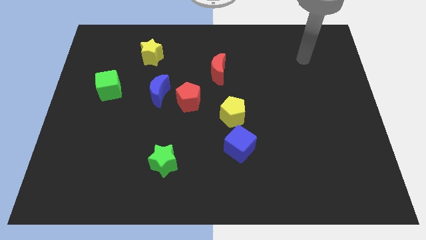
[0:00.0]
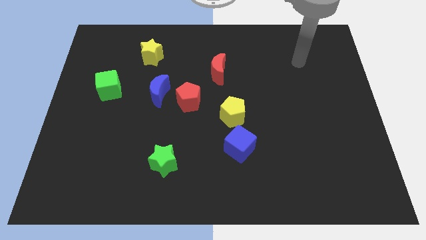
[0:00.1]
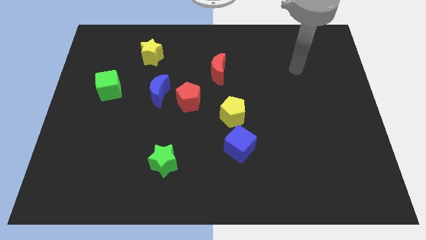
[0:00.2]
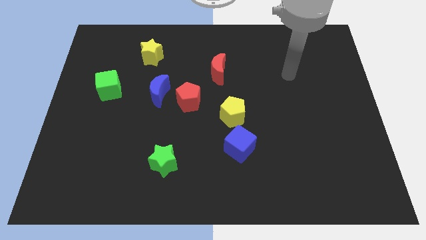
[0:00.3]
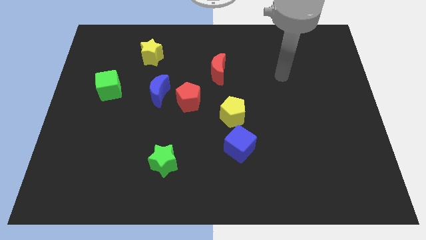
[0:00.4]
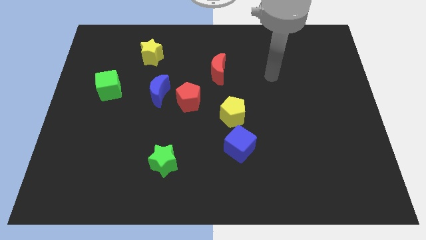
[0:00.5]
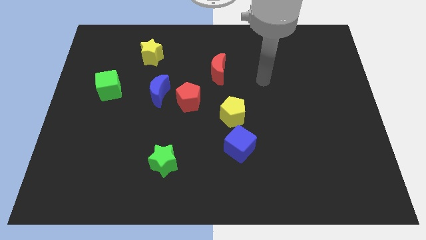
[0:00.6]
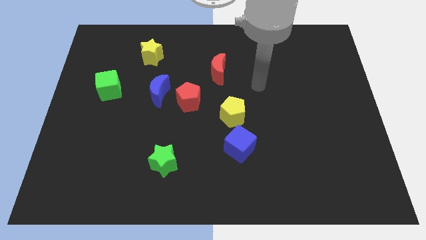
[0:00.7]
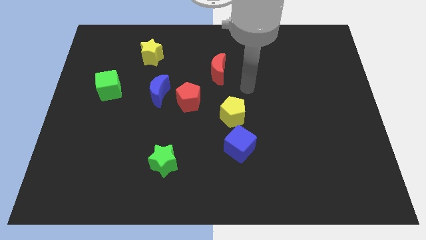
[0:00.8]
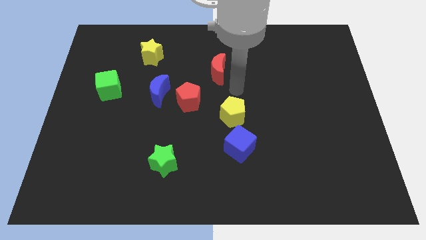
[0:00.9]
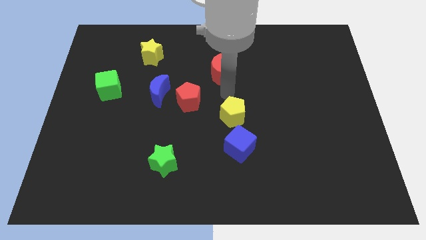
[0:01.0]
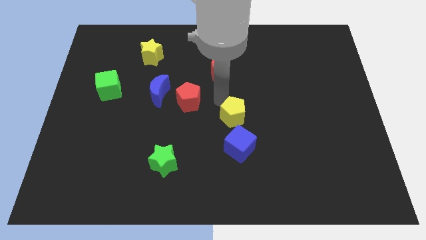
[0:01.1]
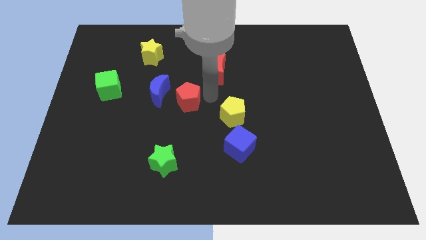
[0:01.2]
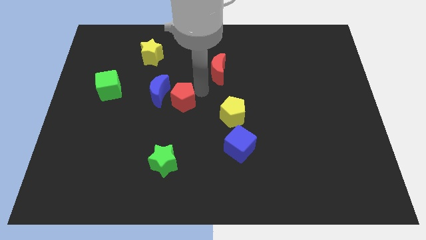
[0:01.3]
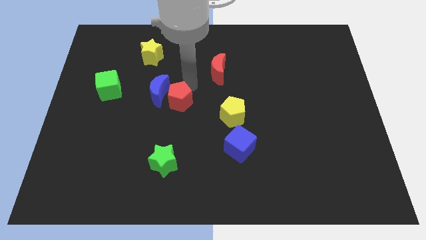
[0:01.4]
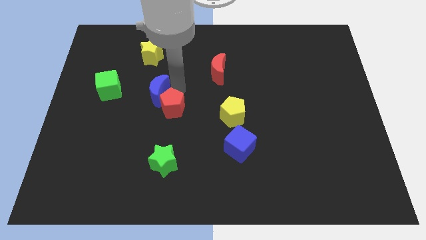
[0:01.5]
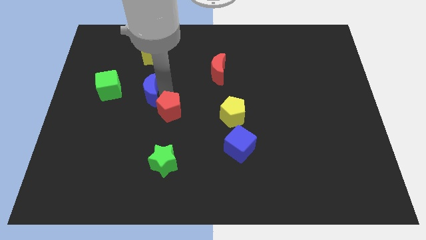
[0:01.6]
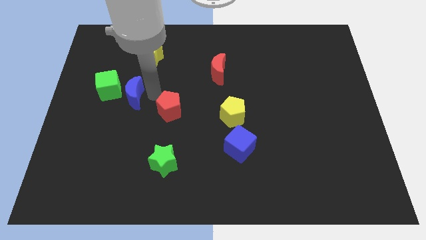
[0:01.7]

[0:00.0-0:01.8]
move the red pentagon away from the blue moon

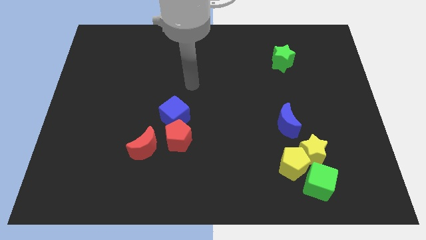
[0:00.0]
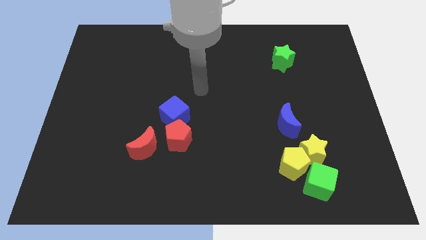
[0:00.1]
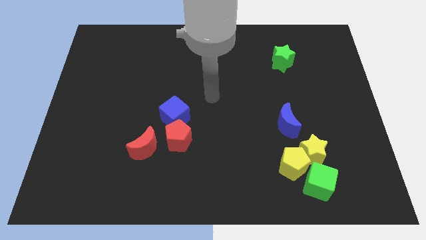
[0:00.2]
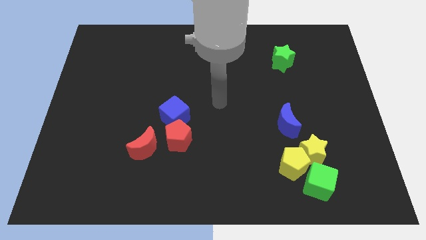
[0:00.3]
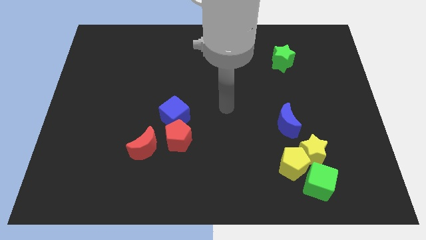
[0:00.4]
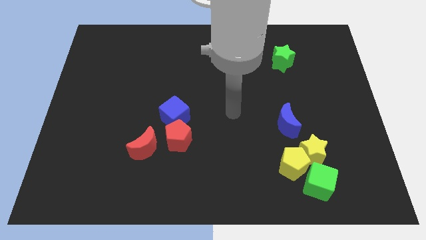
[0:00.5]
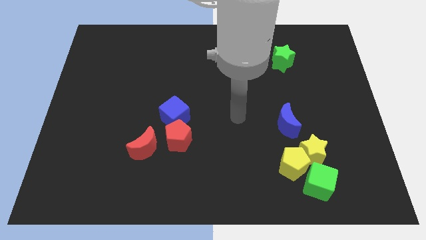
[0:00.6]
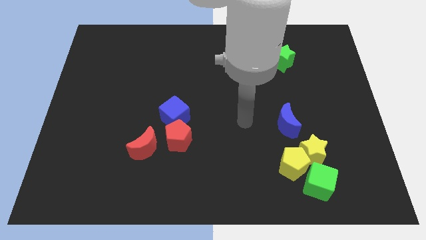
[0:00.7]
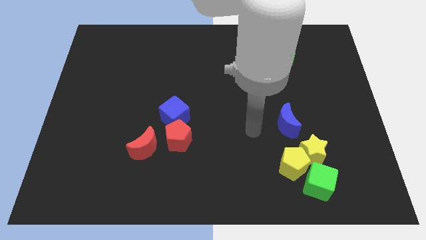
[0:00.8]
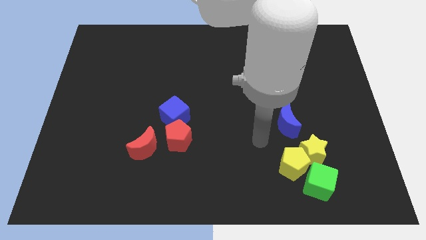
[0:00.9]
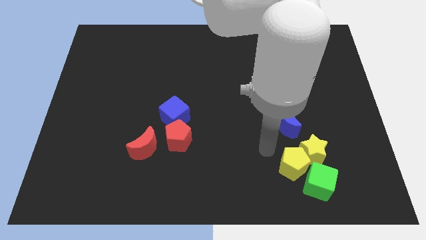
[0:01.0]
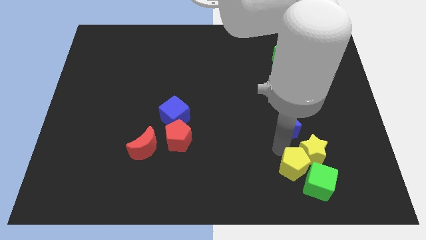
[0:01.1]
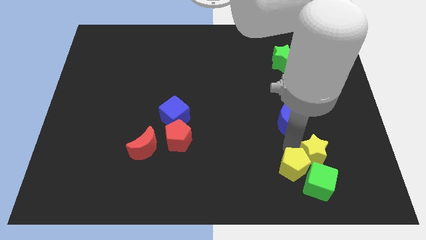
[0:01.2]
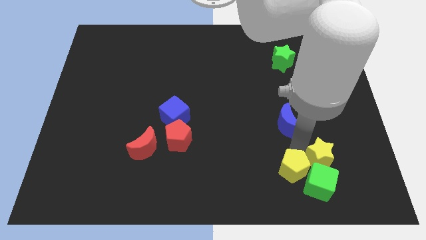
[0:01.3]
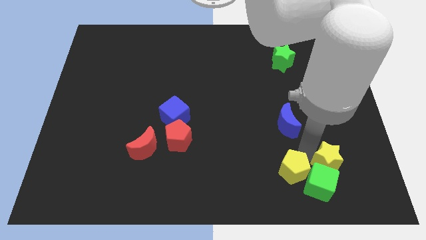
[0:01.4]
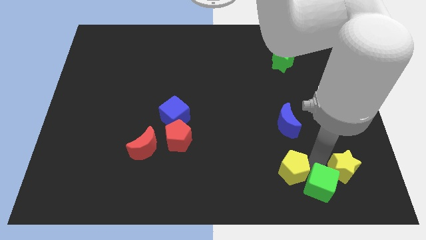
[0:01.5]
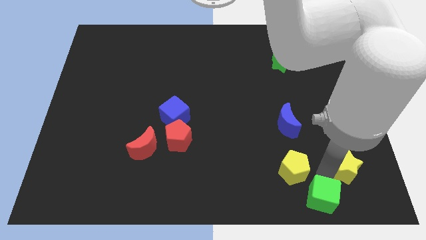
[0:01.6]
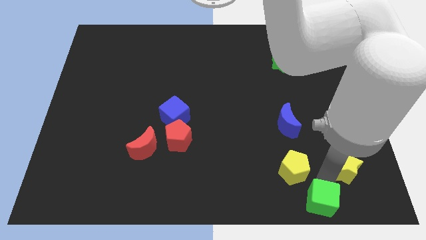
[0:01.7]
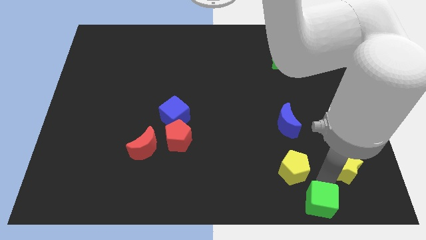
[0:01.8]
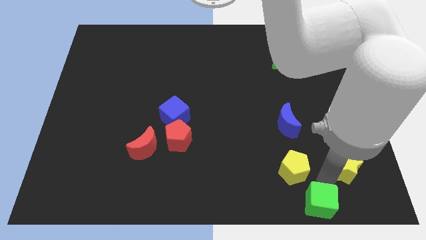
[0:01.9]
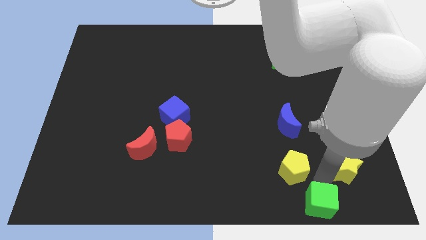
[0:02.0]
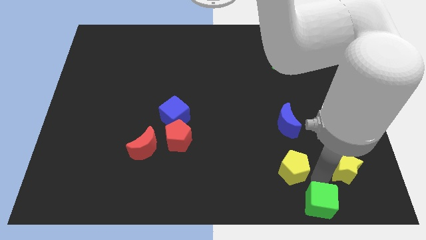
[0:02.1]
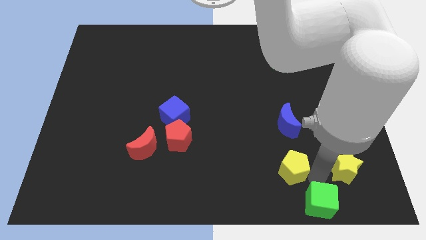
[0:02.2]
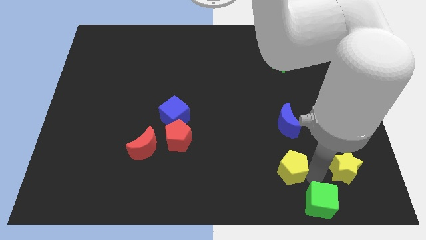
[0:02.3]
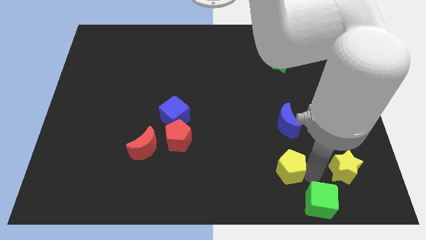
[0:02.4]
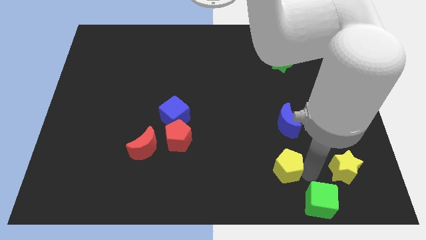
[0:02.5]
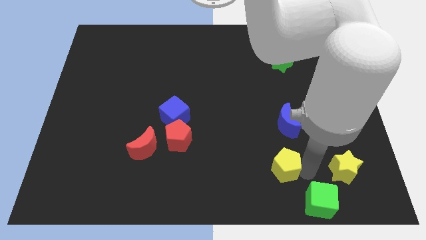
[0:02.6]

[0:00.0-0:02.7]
move the yellow pentagon away from the yellow star and green cube

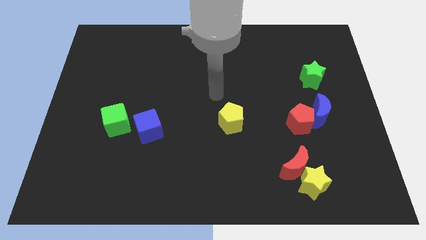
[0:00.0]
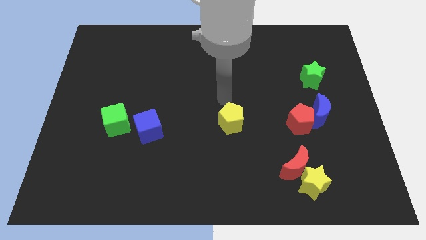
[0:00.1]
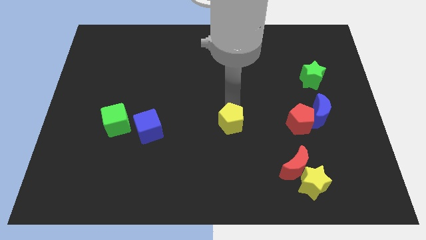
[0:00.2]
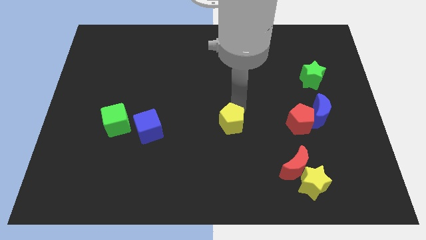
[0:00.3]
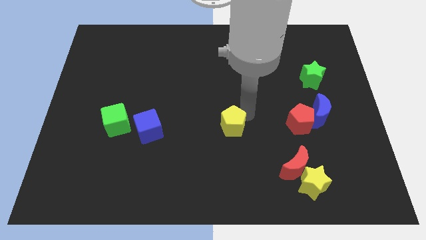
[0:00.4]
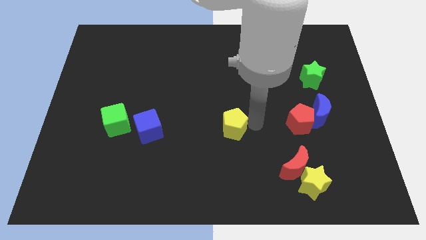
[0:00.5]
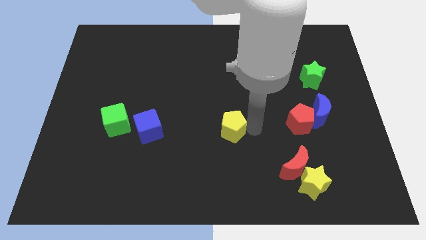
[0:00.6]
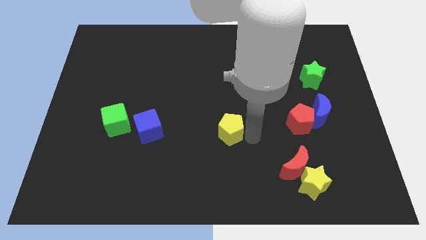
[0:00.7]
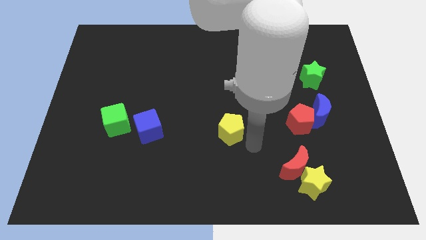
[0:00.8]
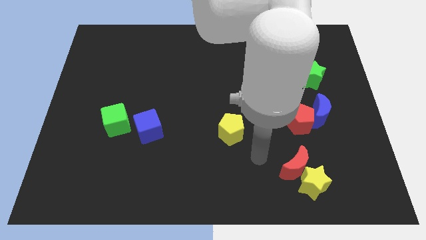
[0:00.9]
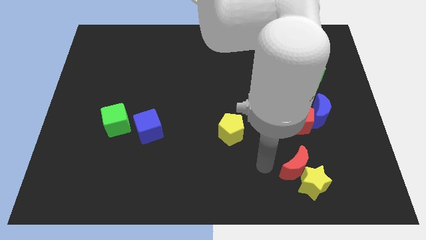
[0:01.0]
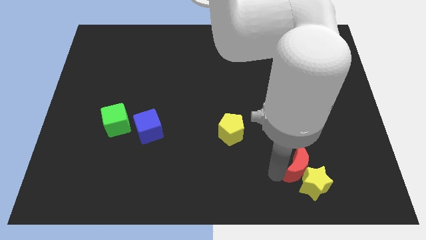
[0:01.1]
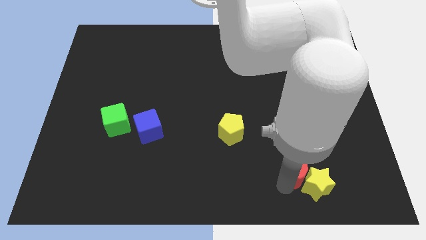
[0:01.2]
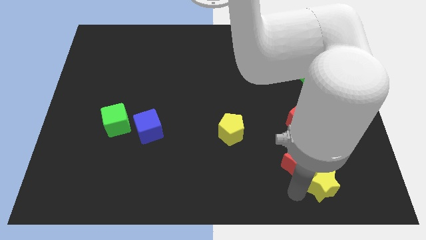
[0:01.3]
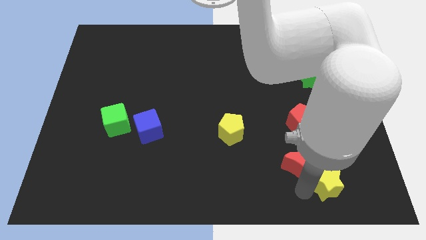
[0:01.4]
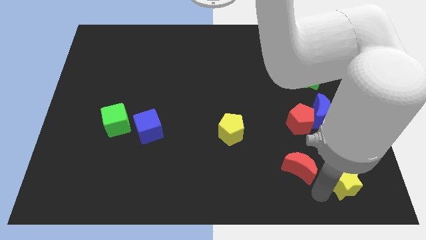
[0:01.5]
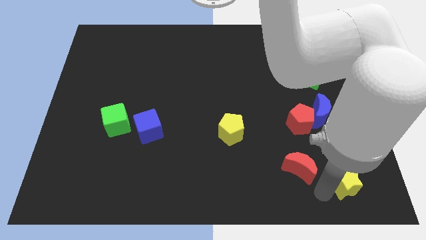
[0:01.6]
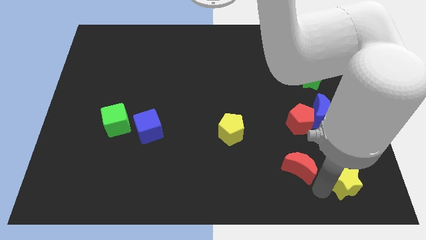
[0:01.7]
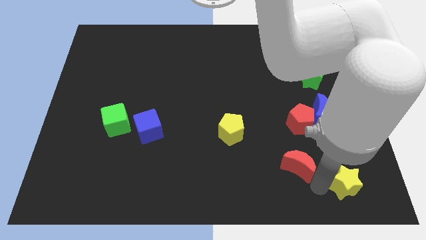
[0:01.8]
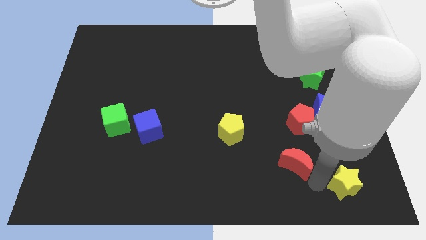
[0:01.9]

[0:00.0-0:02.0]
pull the red moon apart from the yellow star

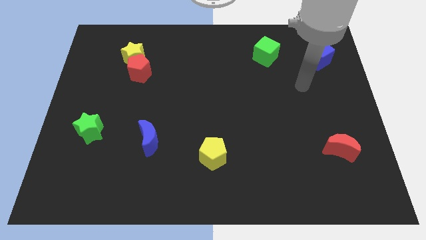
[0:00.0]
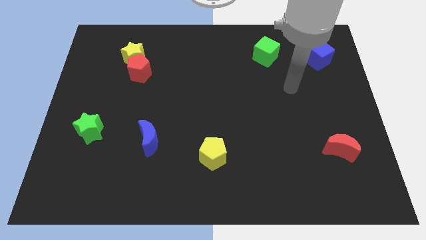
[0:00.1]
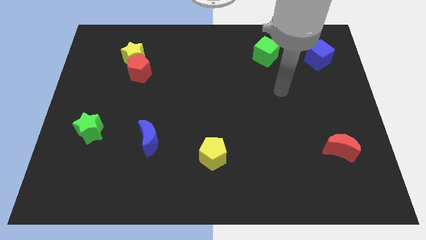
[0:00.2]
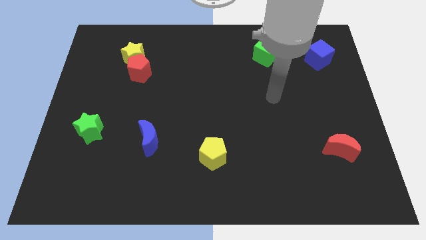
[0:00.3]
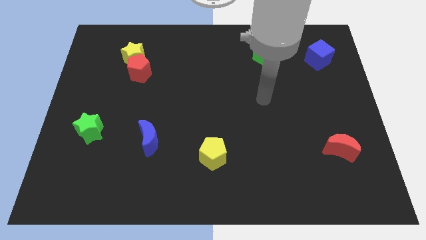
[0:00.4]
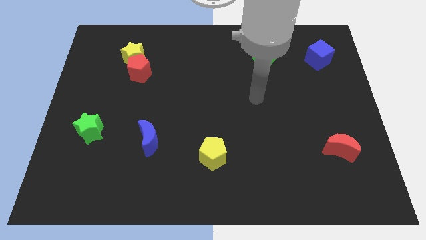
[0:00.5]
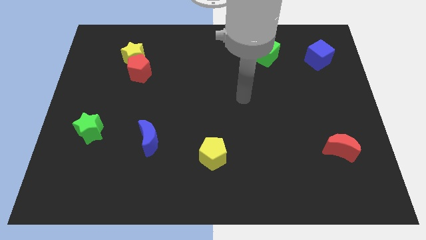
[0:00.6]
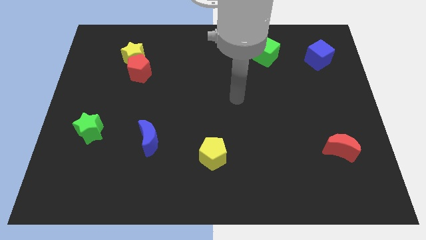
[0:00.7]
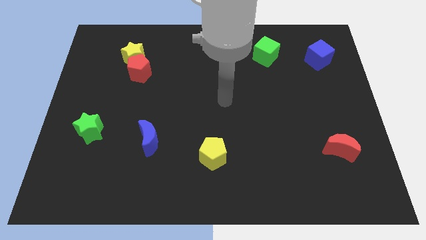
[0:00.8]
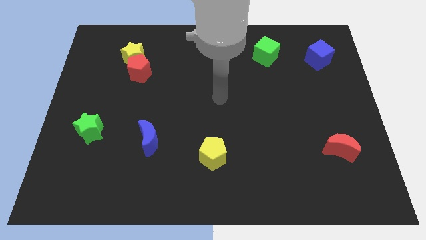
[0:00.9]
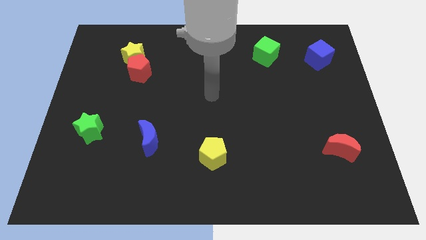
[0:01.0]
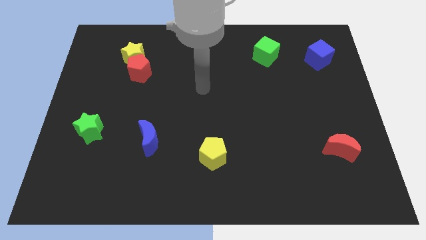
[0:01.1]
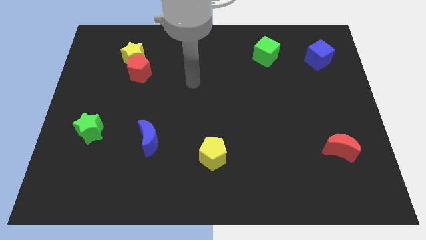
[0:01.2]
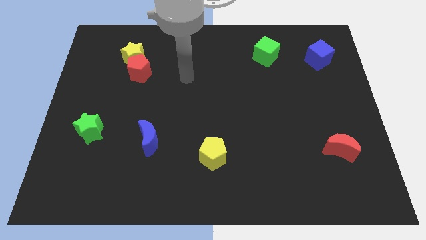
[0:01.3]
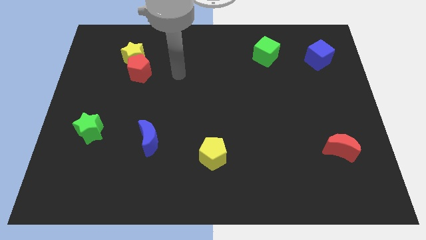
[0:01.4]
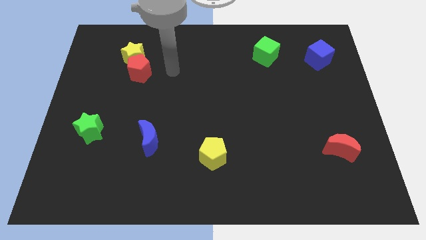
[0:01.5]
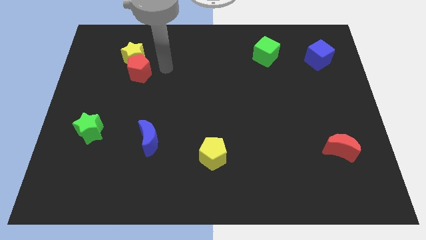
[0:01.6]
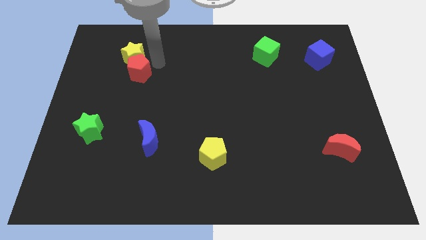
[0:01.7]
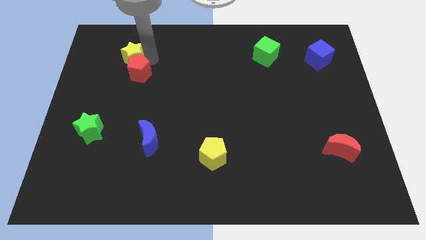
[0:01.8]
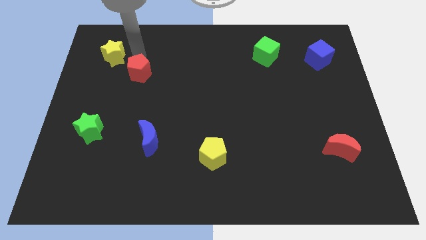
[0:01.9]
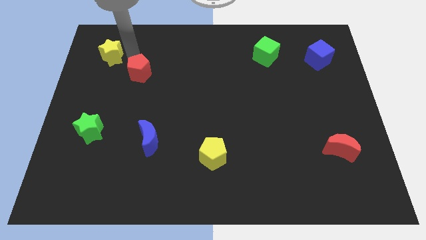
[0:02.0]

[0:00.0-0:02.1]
pull the red pentagon apart from the yellow star

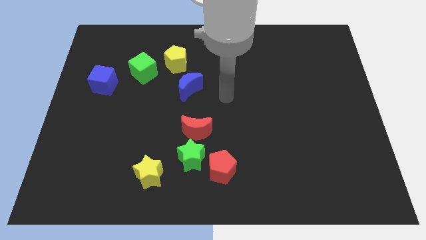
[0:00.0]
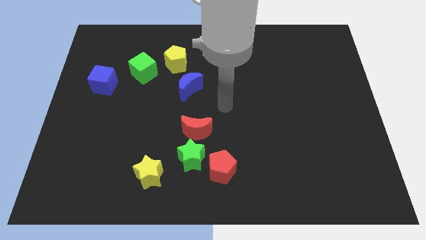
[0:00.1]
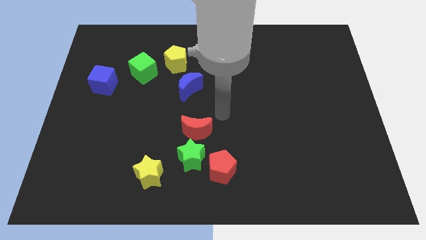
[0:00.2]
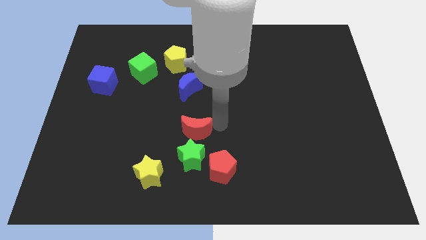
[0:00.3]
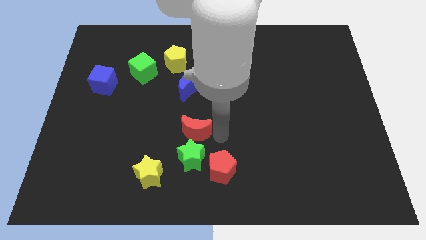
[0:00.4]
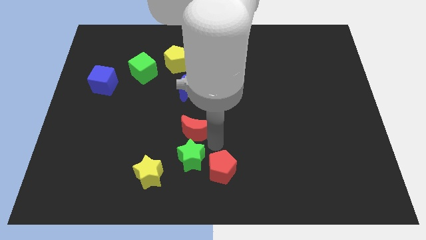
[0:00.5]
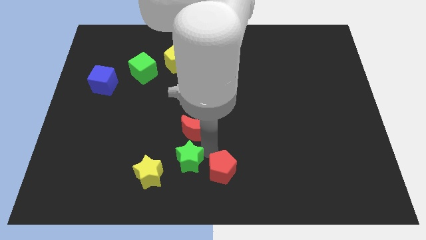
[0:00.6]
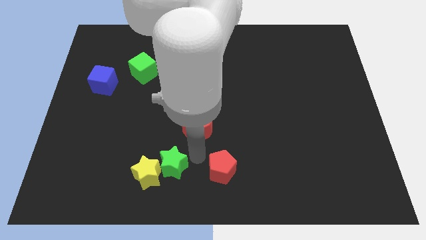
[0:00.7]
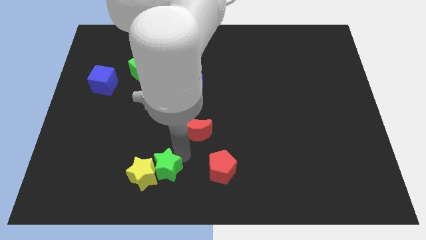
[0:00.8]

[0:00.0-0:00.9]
move the red moon away from the green star
